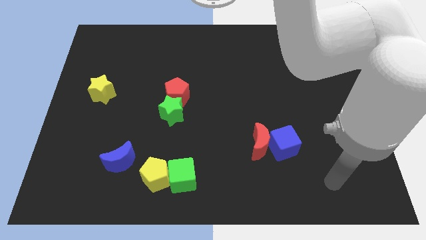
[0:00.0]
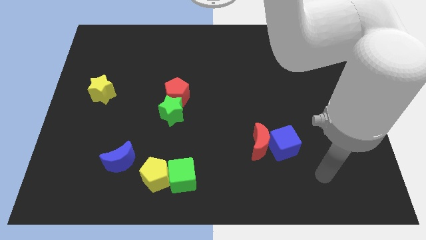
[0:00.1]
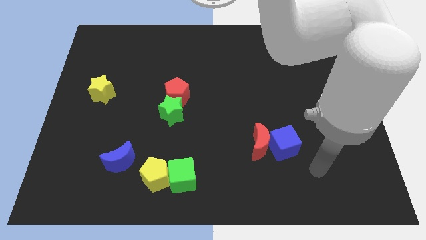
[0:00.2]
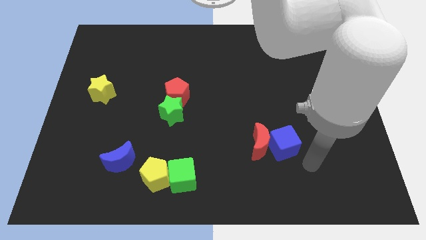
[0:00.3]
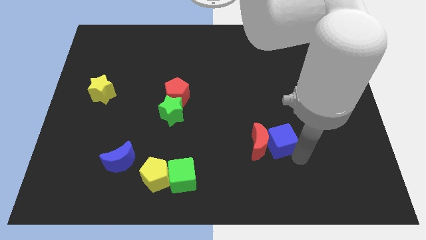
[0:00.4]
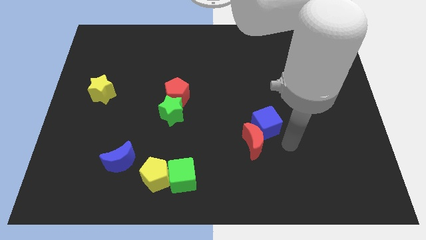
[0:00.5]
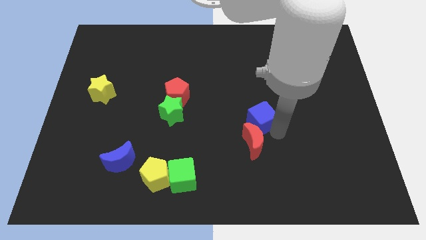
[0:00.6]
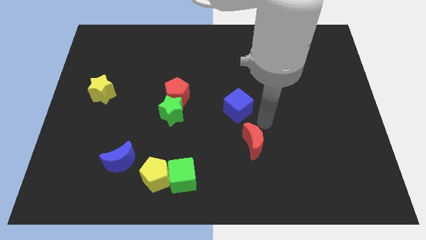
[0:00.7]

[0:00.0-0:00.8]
move the red moon away from the blue cube

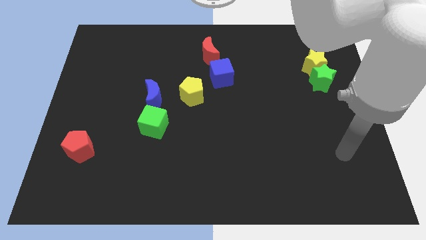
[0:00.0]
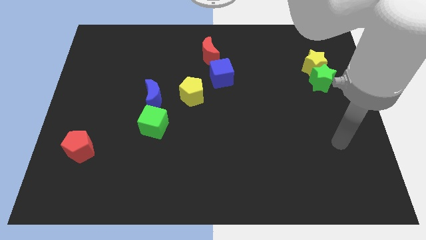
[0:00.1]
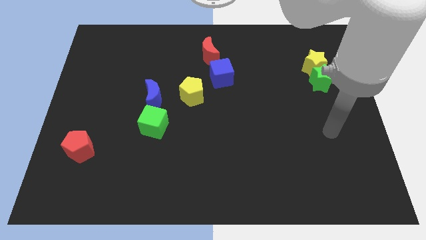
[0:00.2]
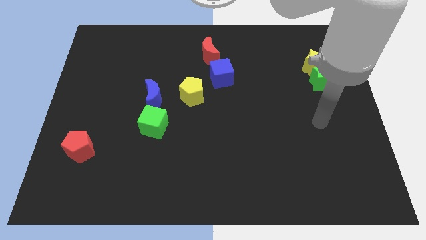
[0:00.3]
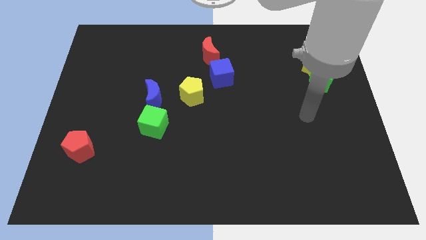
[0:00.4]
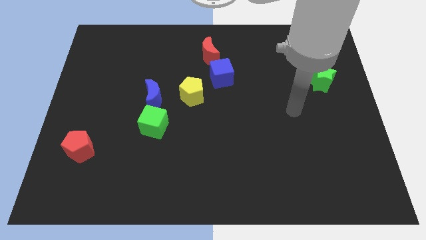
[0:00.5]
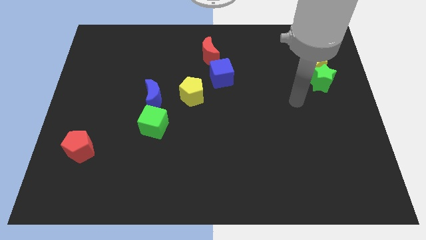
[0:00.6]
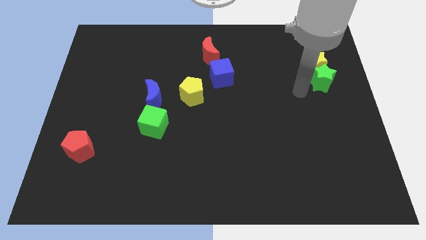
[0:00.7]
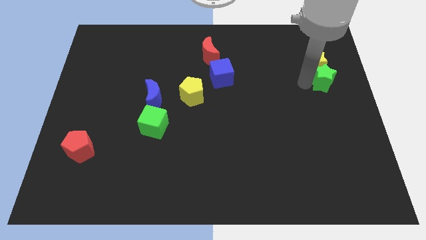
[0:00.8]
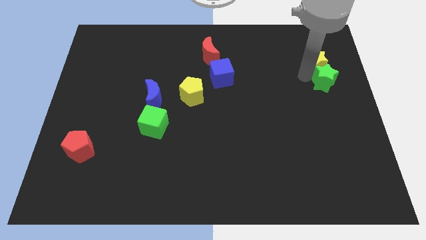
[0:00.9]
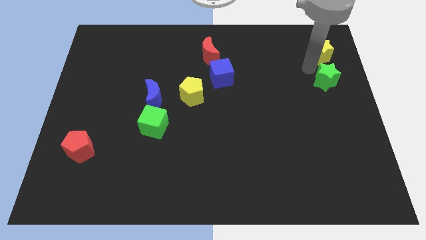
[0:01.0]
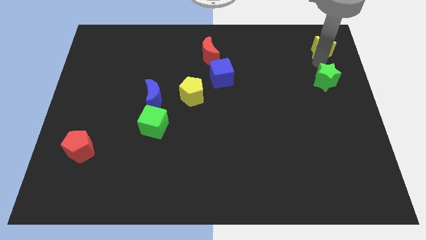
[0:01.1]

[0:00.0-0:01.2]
separate the green star from the yellow star

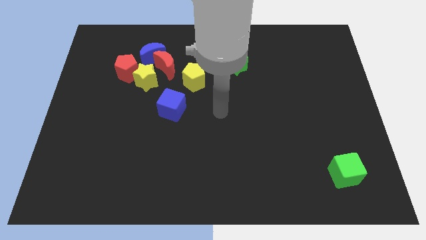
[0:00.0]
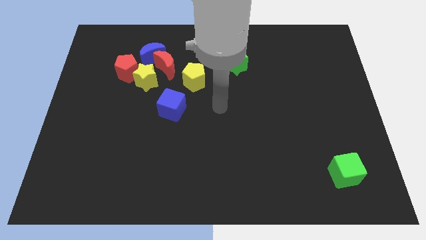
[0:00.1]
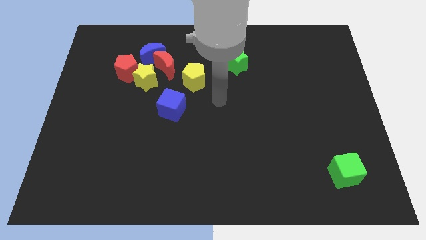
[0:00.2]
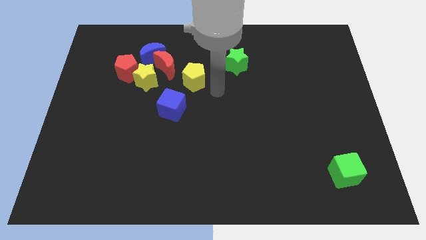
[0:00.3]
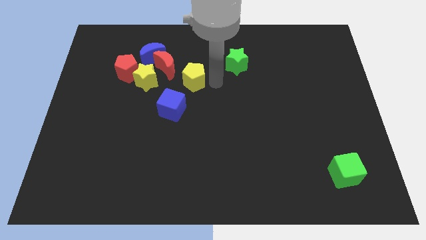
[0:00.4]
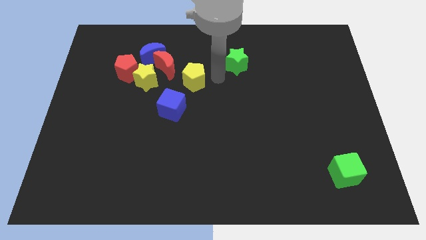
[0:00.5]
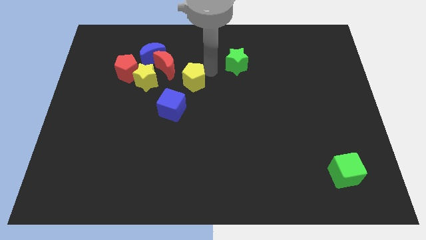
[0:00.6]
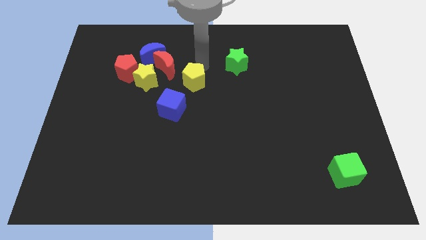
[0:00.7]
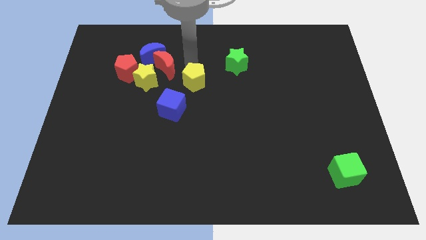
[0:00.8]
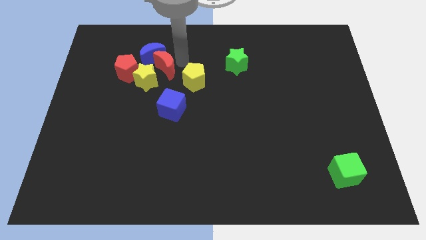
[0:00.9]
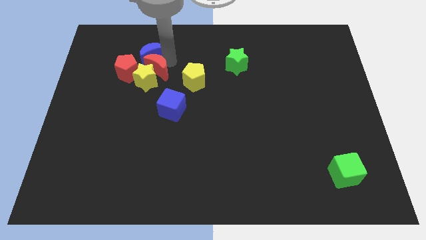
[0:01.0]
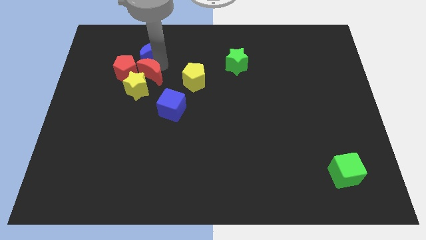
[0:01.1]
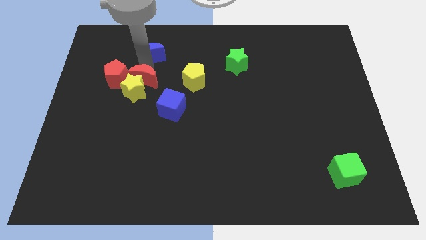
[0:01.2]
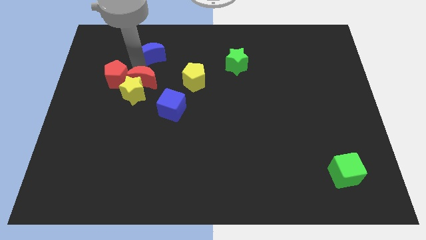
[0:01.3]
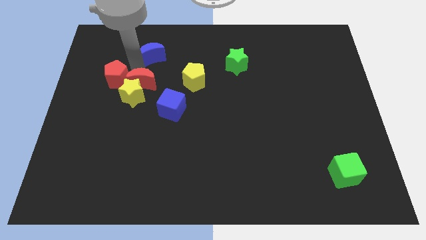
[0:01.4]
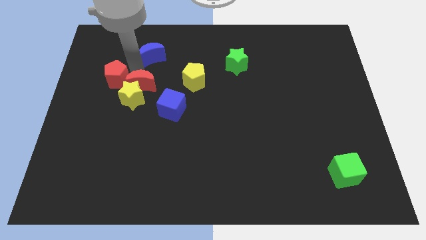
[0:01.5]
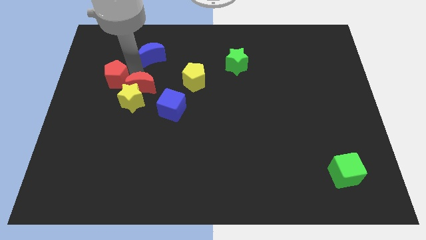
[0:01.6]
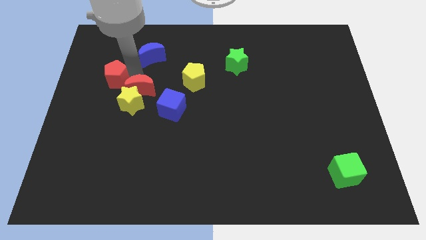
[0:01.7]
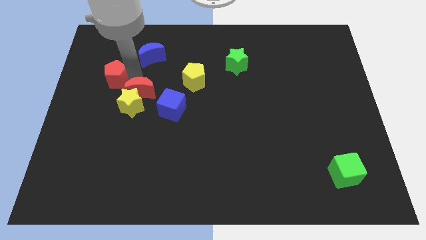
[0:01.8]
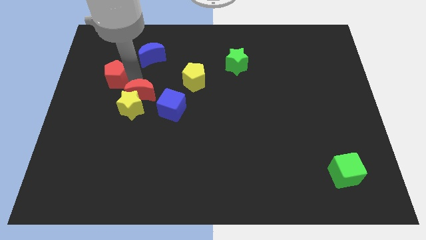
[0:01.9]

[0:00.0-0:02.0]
pull the yellow star apart from the group

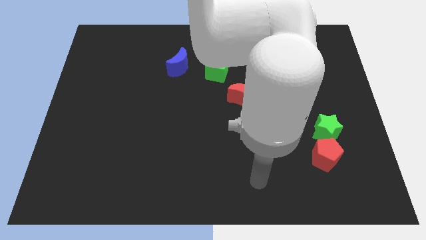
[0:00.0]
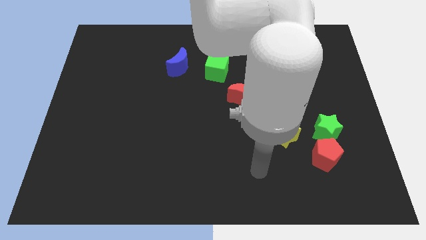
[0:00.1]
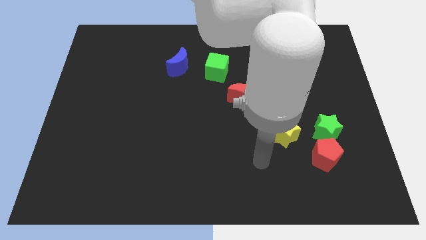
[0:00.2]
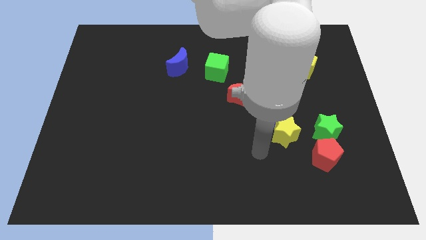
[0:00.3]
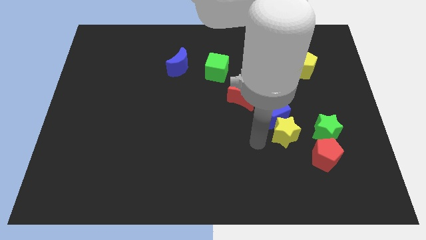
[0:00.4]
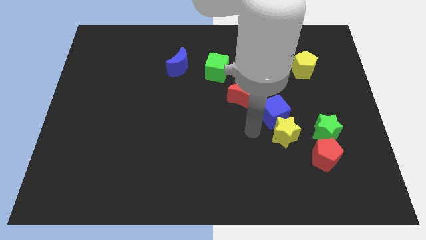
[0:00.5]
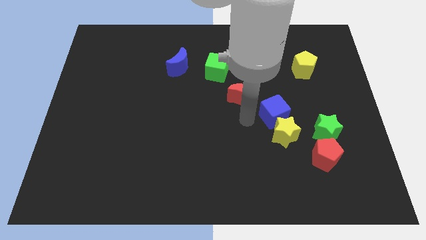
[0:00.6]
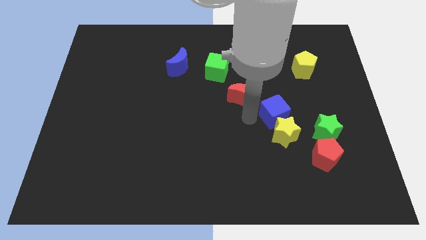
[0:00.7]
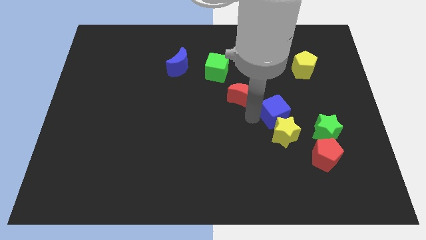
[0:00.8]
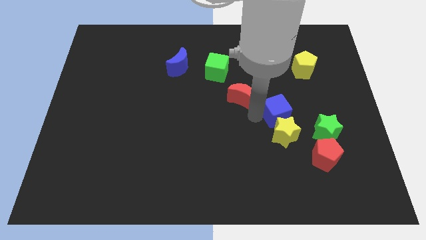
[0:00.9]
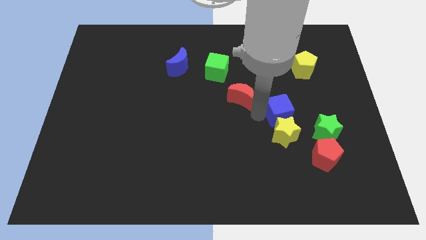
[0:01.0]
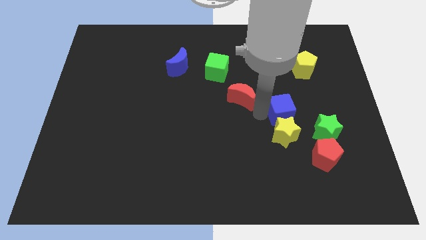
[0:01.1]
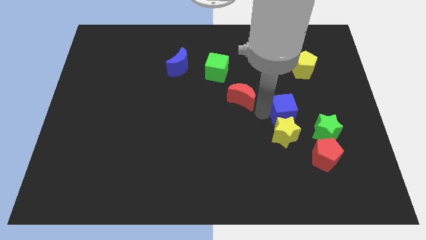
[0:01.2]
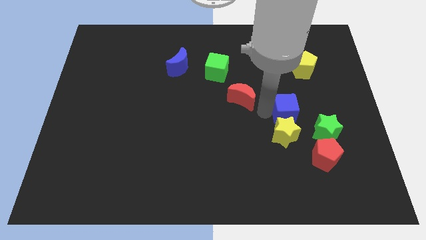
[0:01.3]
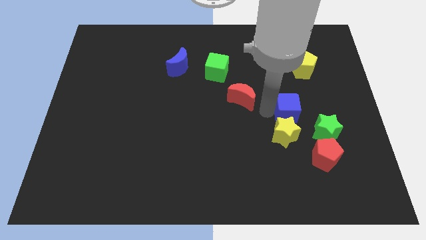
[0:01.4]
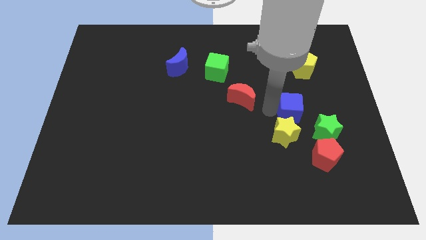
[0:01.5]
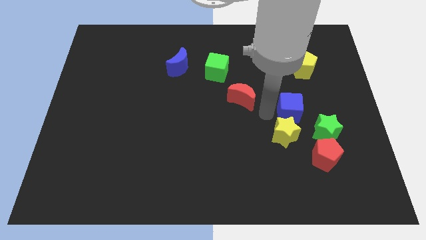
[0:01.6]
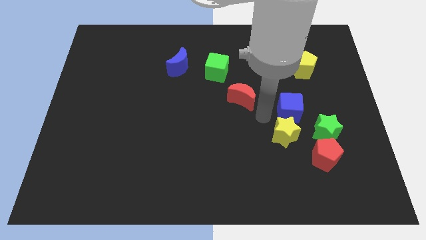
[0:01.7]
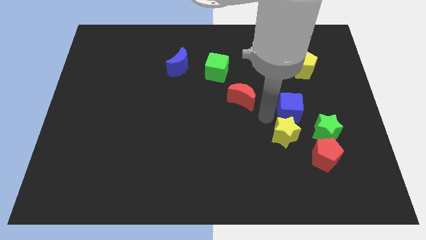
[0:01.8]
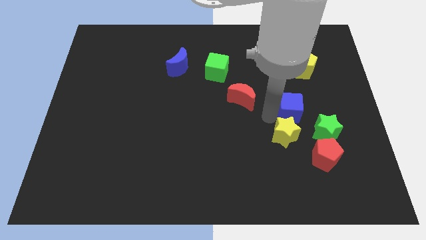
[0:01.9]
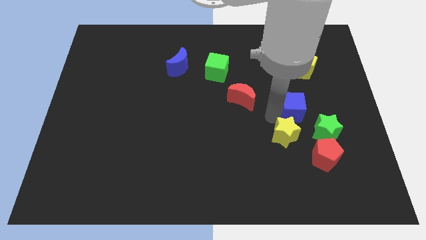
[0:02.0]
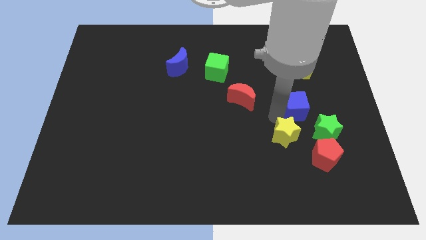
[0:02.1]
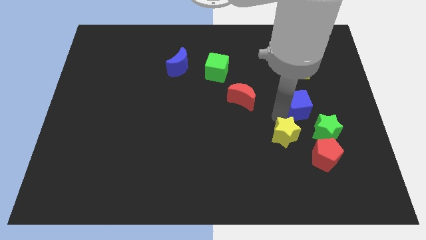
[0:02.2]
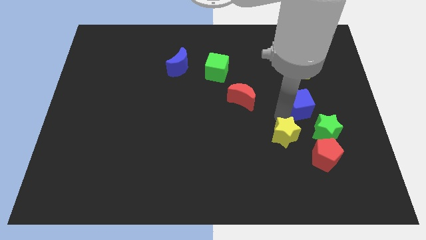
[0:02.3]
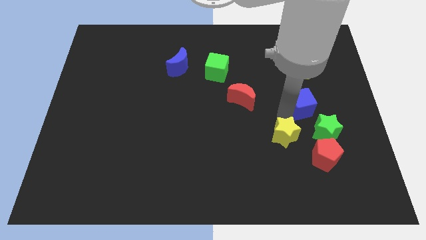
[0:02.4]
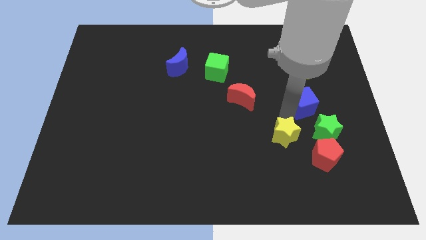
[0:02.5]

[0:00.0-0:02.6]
move the blue cube away from the yellow star and red moon

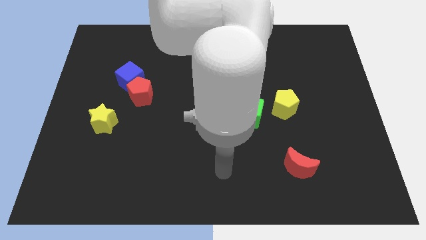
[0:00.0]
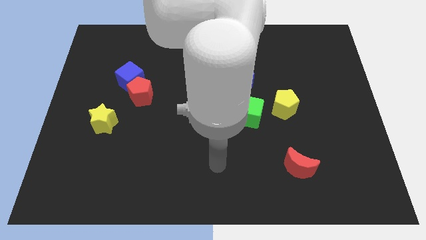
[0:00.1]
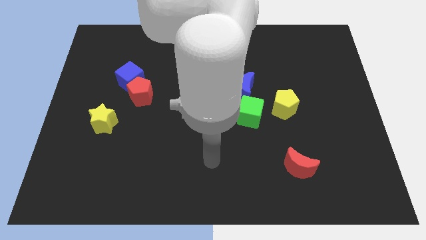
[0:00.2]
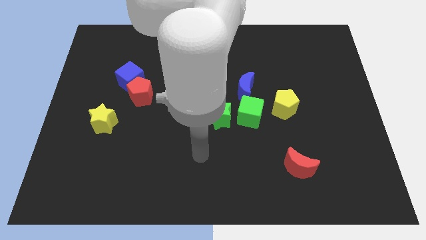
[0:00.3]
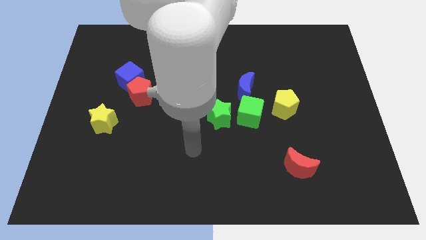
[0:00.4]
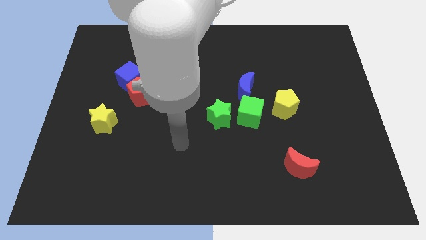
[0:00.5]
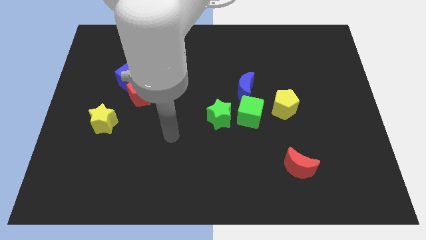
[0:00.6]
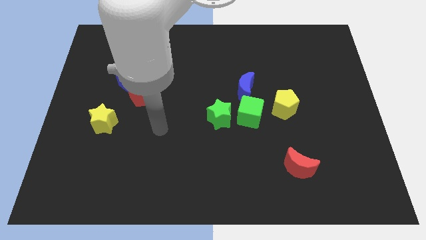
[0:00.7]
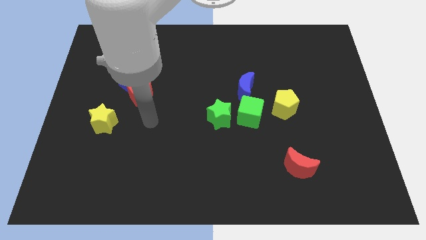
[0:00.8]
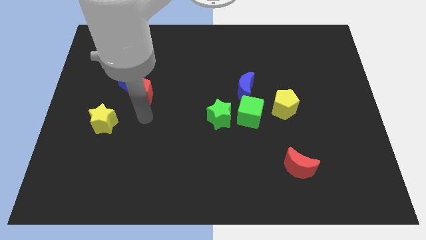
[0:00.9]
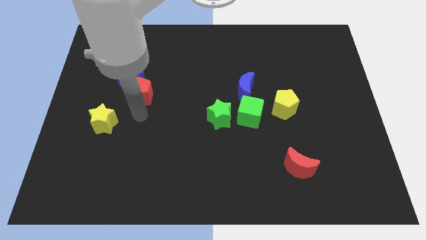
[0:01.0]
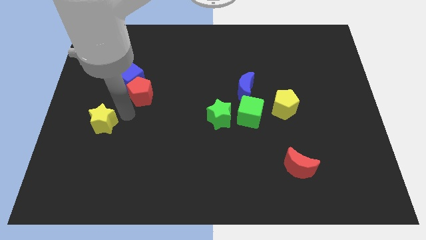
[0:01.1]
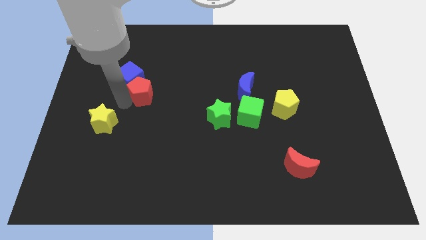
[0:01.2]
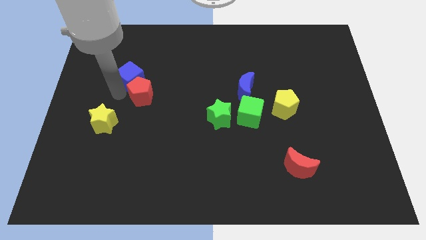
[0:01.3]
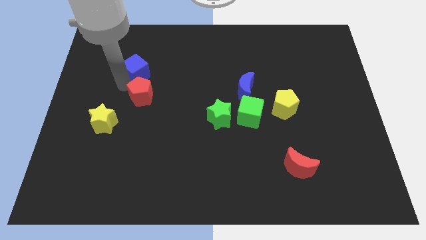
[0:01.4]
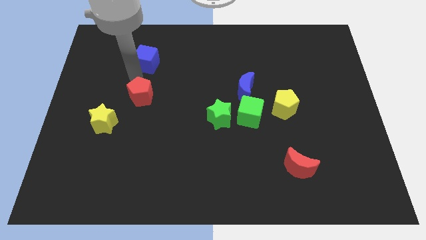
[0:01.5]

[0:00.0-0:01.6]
separate the red pentagon from the blue cube

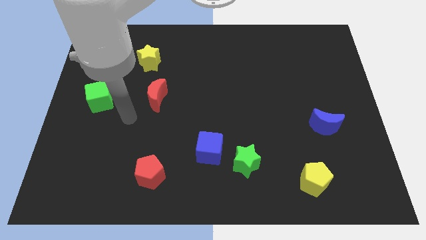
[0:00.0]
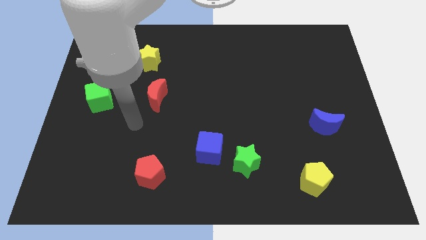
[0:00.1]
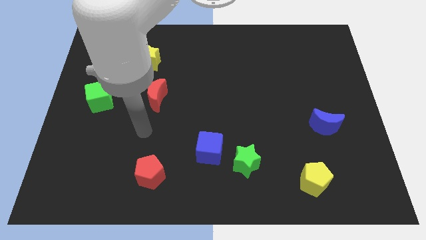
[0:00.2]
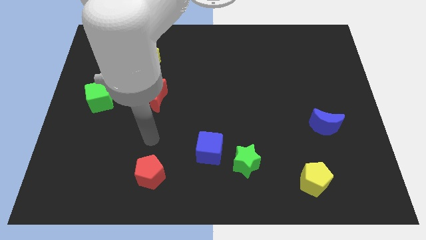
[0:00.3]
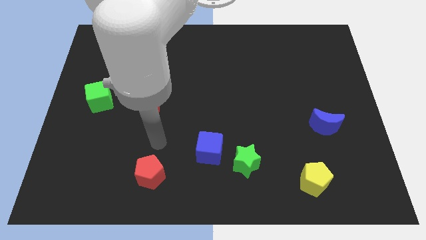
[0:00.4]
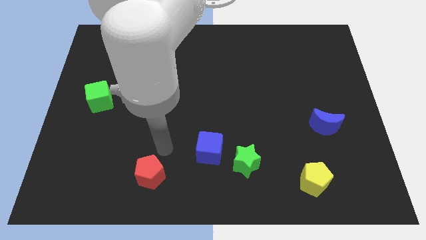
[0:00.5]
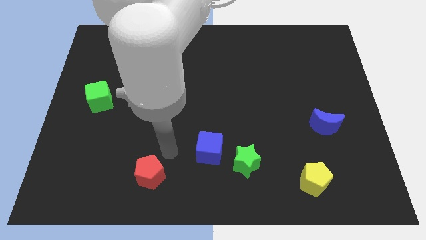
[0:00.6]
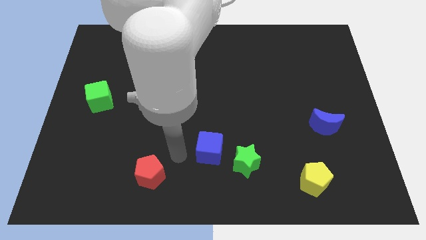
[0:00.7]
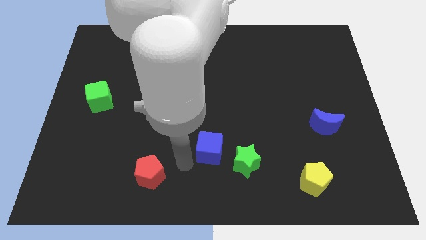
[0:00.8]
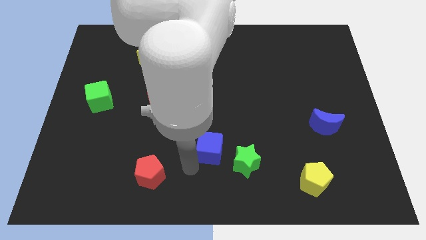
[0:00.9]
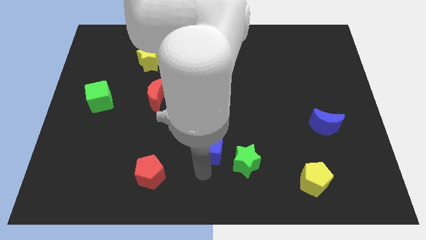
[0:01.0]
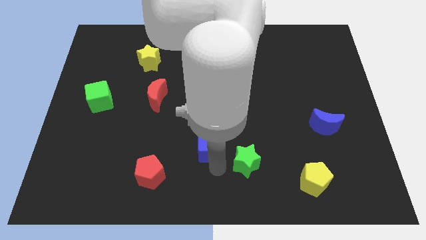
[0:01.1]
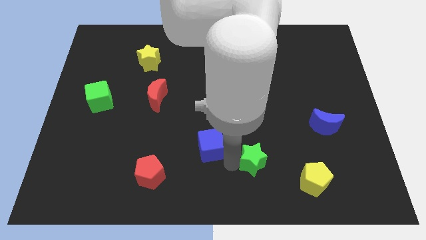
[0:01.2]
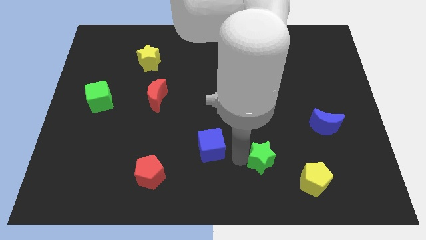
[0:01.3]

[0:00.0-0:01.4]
separate the blue cube from the green star
